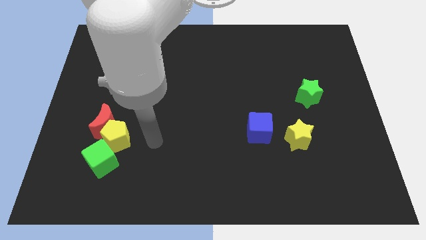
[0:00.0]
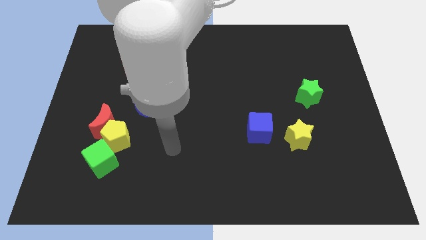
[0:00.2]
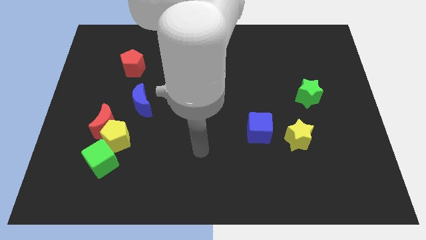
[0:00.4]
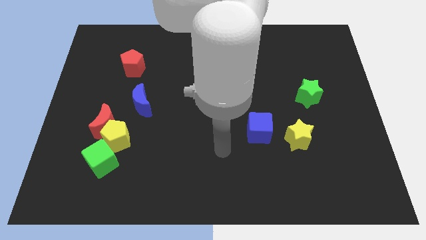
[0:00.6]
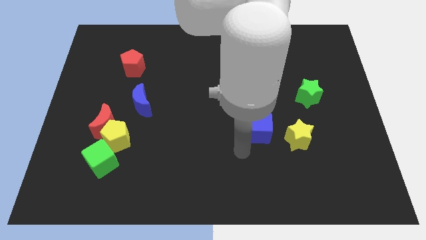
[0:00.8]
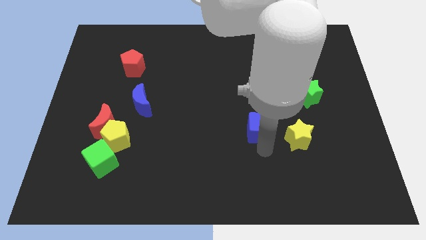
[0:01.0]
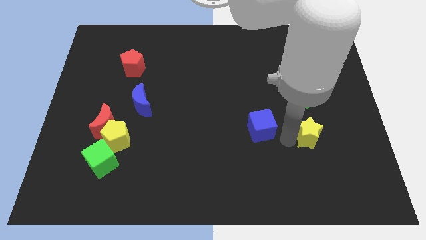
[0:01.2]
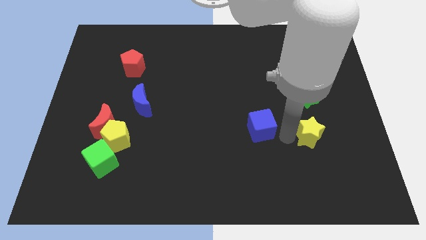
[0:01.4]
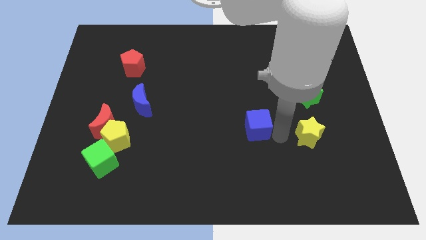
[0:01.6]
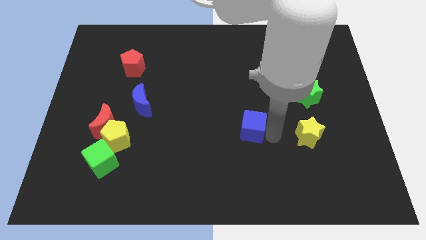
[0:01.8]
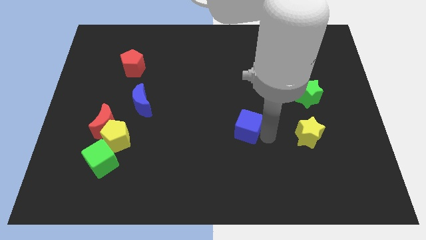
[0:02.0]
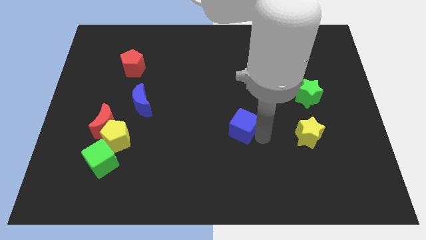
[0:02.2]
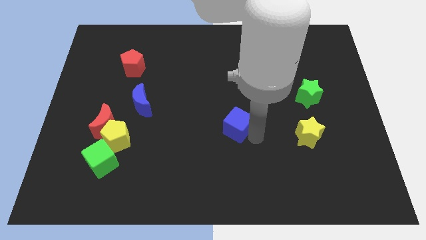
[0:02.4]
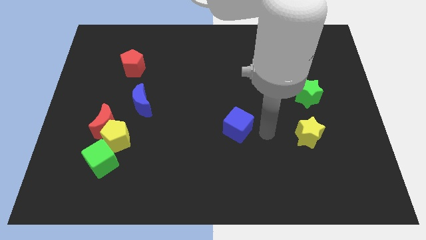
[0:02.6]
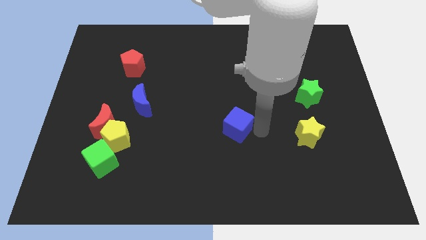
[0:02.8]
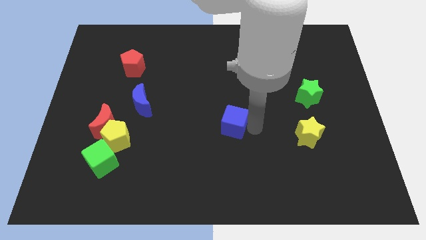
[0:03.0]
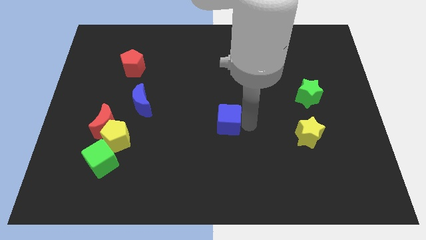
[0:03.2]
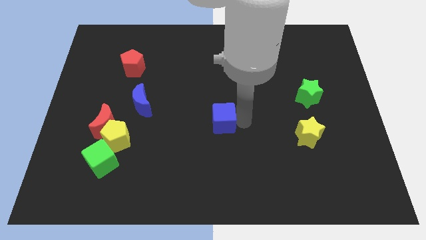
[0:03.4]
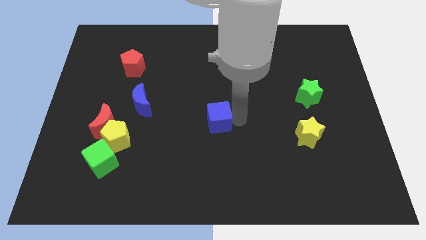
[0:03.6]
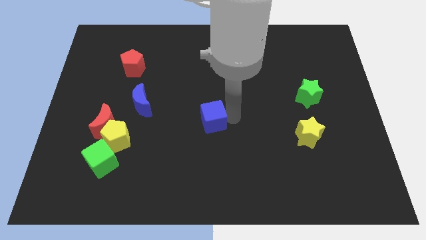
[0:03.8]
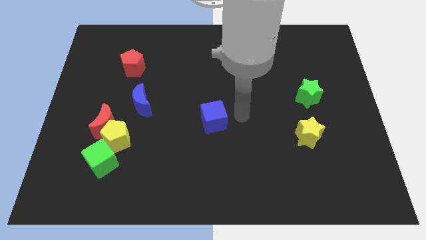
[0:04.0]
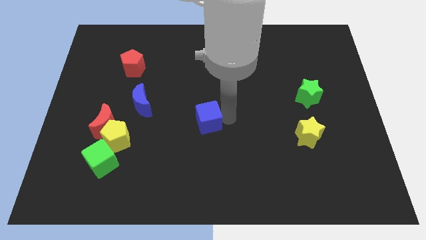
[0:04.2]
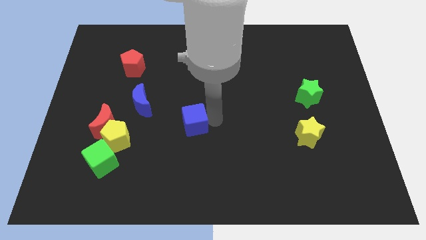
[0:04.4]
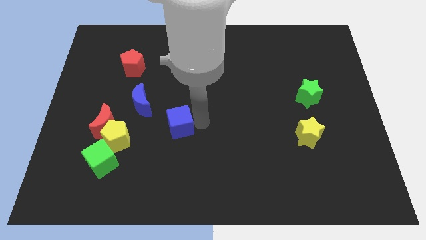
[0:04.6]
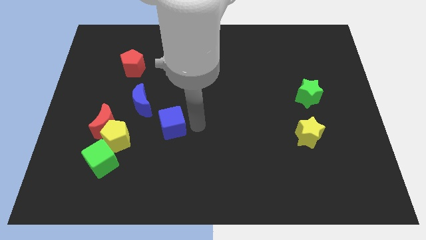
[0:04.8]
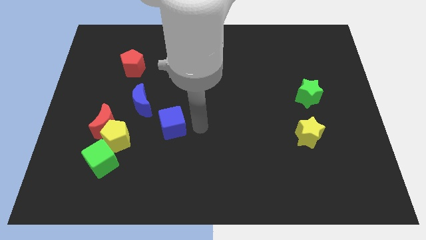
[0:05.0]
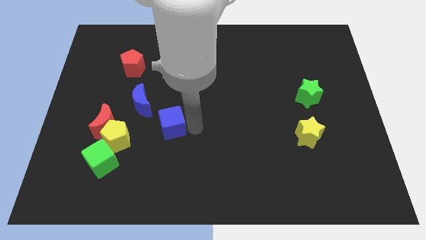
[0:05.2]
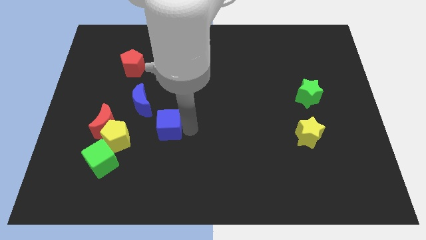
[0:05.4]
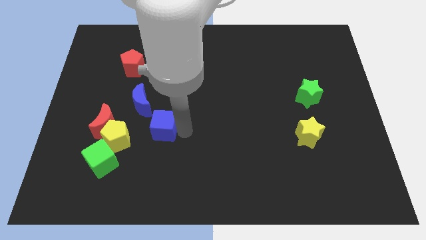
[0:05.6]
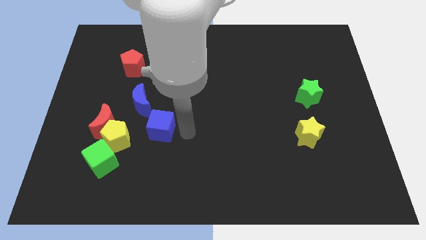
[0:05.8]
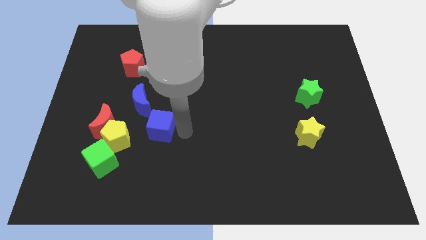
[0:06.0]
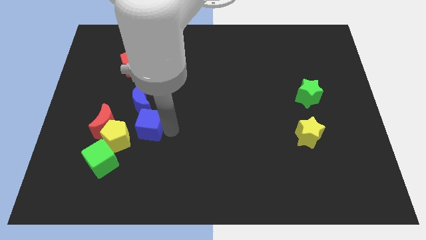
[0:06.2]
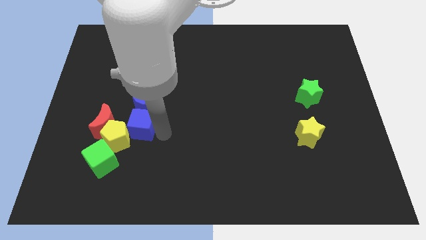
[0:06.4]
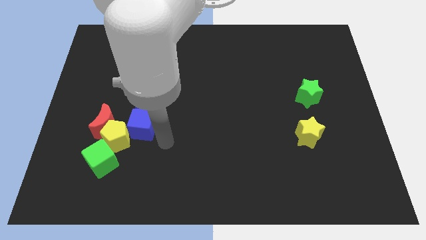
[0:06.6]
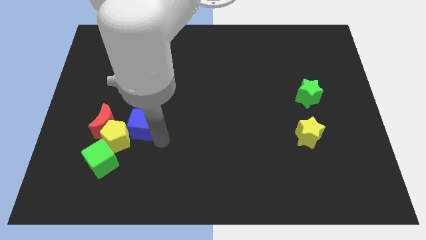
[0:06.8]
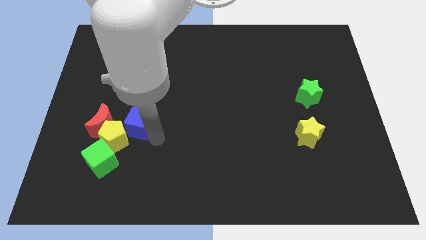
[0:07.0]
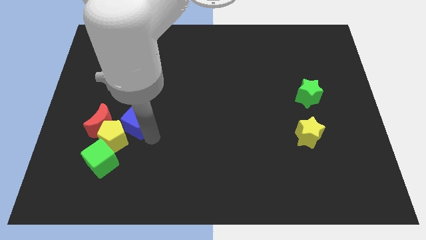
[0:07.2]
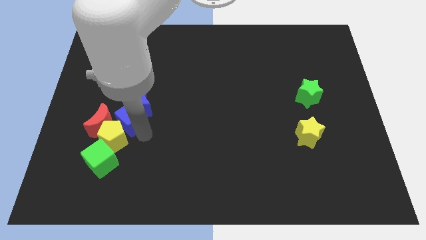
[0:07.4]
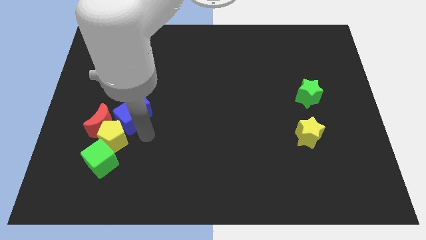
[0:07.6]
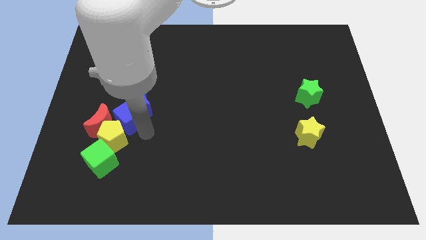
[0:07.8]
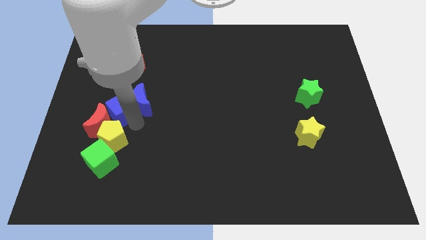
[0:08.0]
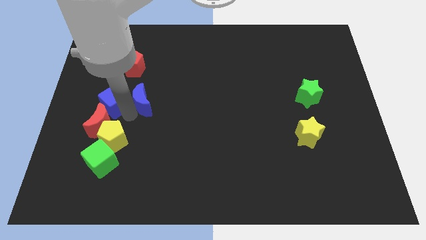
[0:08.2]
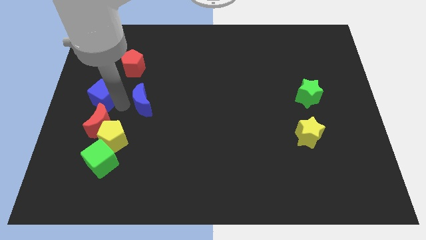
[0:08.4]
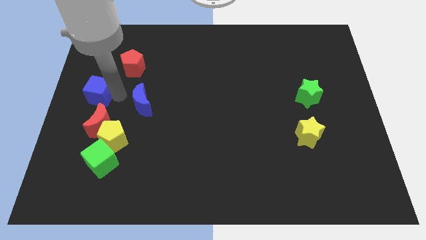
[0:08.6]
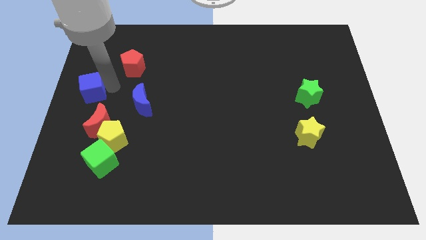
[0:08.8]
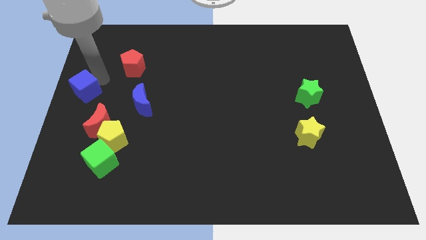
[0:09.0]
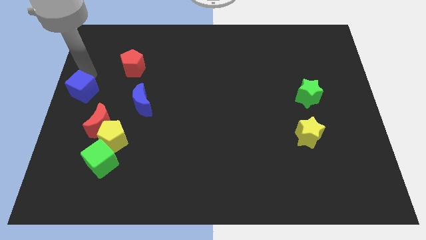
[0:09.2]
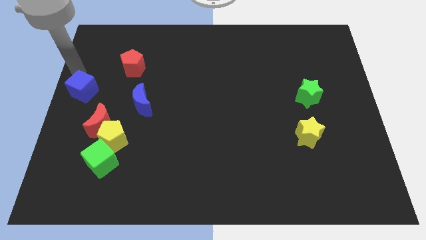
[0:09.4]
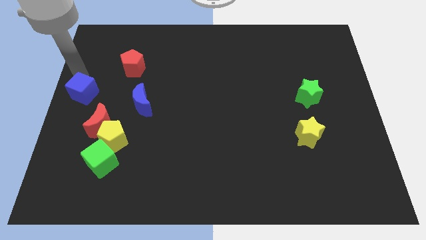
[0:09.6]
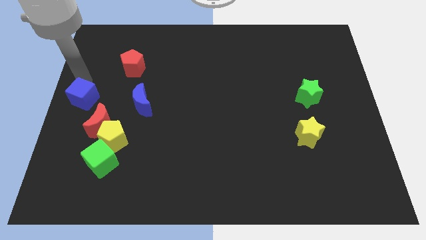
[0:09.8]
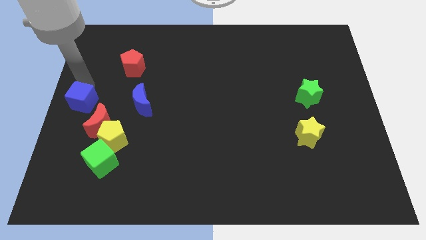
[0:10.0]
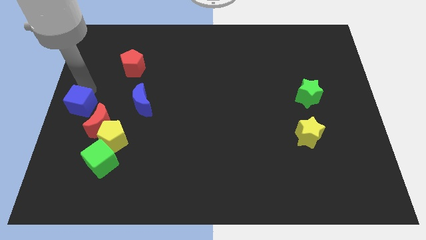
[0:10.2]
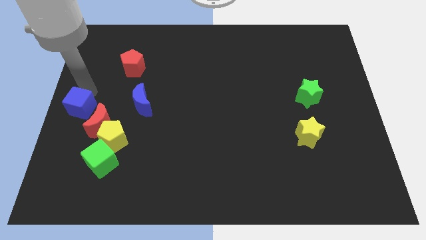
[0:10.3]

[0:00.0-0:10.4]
push the blue cube diagonally up and to the left of the yellow pentagon

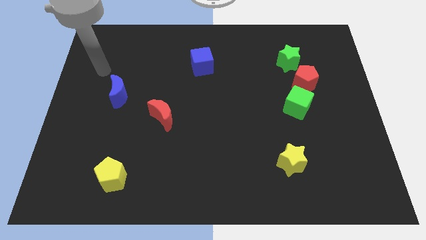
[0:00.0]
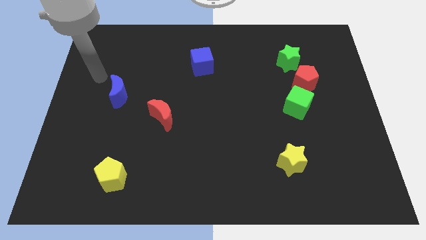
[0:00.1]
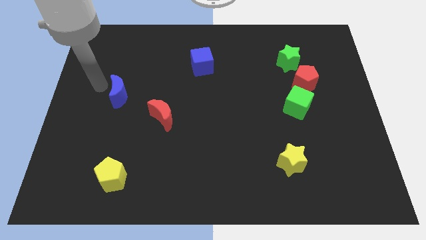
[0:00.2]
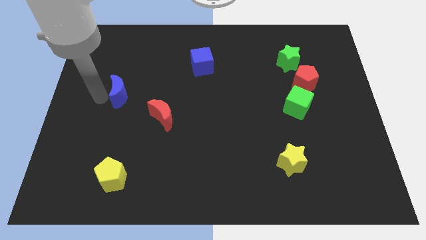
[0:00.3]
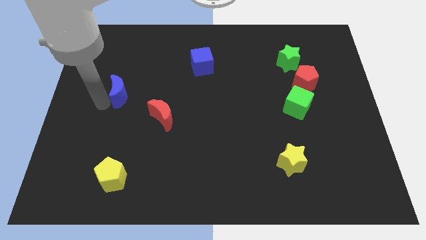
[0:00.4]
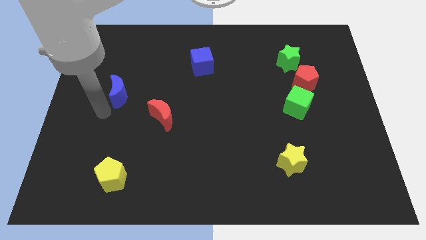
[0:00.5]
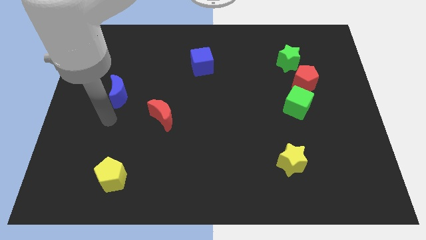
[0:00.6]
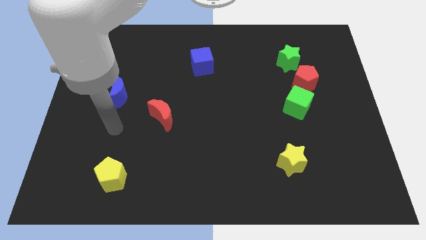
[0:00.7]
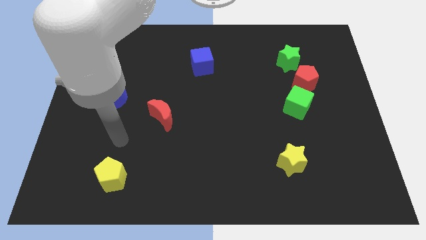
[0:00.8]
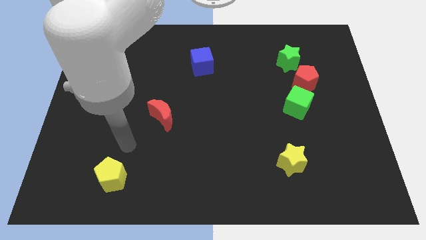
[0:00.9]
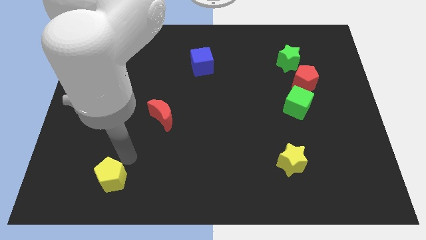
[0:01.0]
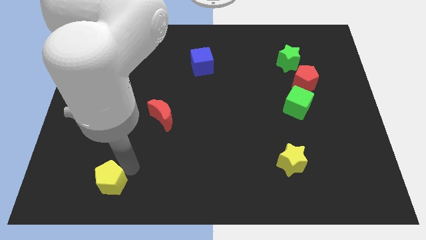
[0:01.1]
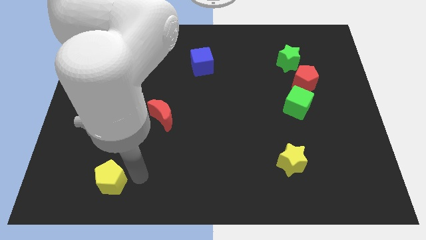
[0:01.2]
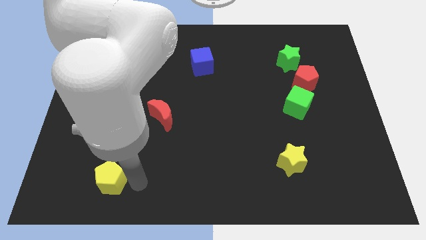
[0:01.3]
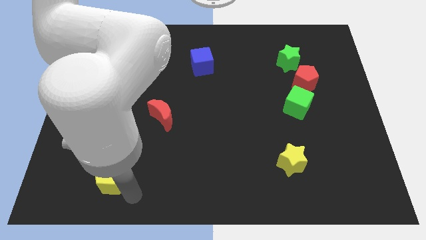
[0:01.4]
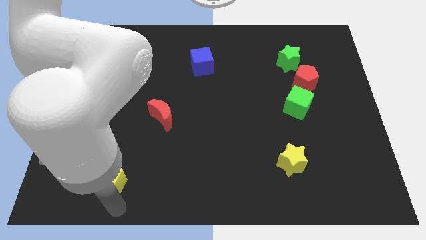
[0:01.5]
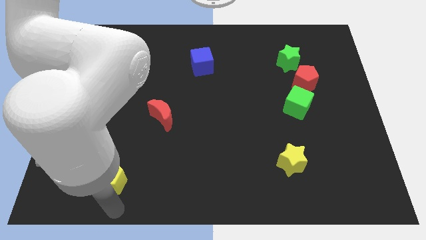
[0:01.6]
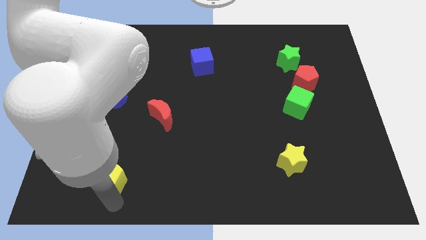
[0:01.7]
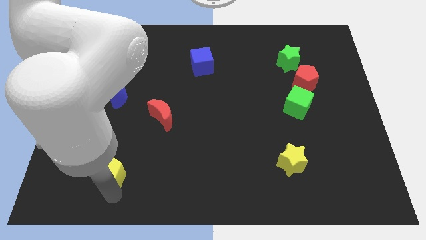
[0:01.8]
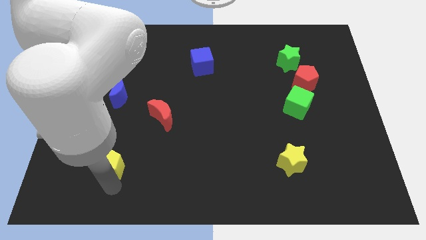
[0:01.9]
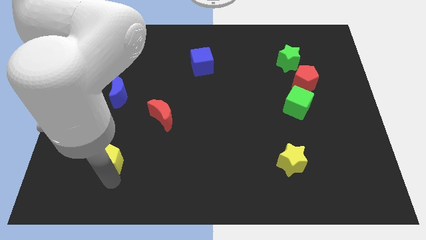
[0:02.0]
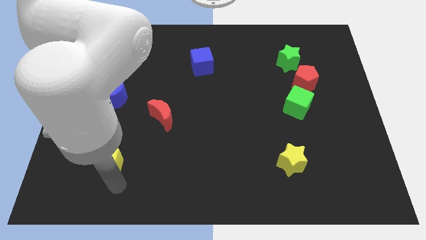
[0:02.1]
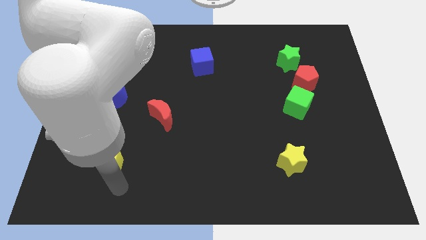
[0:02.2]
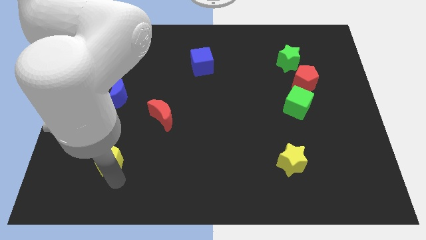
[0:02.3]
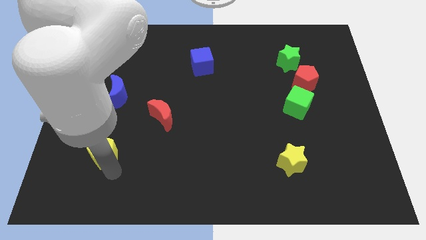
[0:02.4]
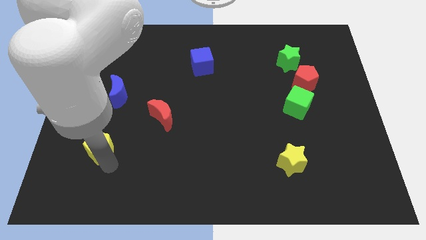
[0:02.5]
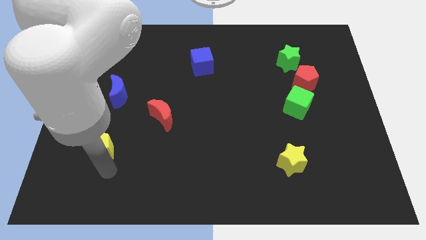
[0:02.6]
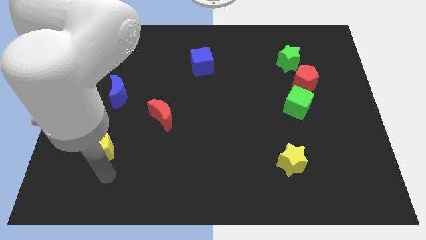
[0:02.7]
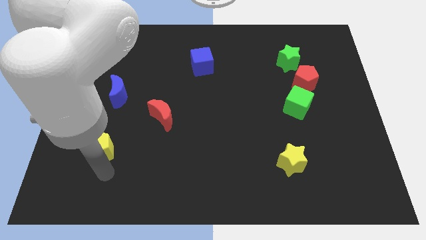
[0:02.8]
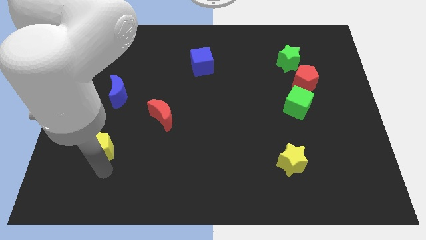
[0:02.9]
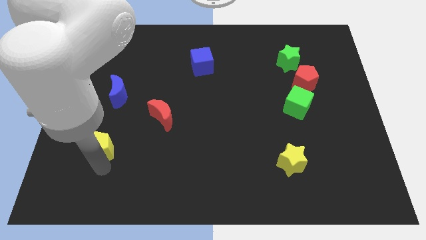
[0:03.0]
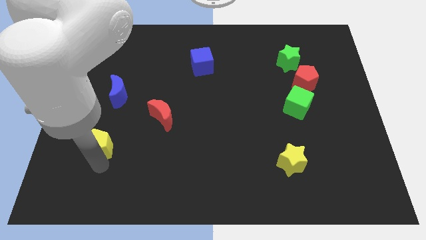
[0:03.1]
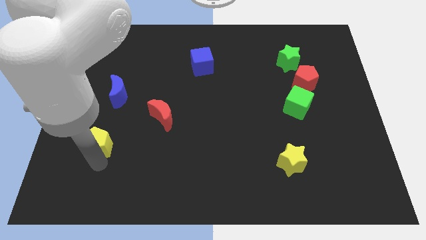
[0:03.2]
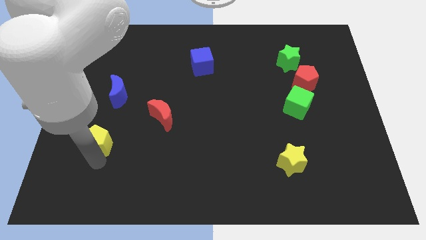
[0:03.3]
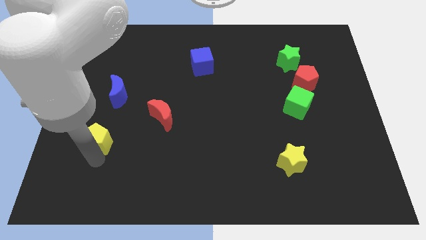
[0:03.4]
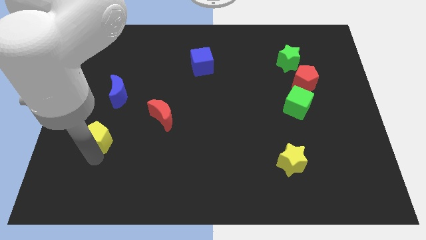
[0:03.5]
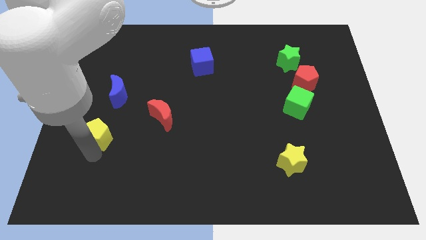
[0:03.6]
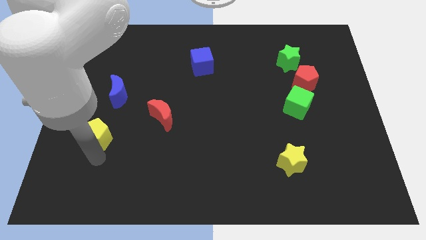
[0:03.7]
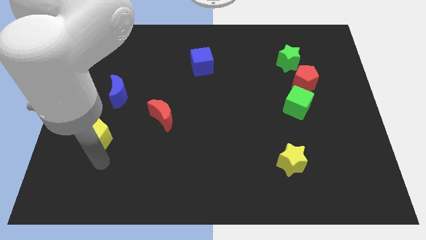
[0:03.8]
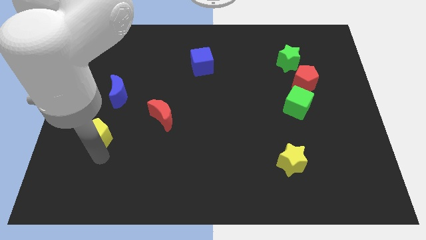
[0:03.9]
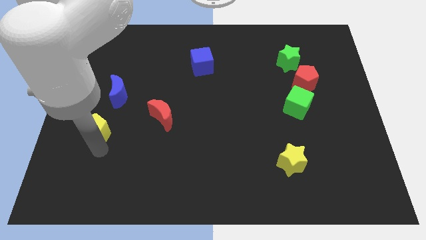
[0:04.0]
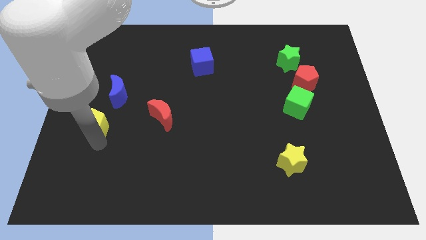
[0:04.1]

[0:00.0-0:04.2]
push the yellow pentagon to the bottom left side of the blue moon
